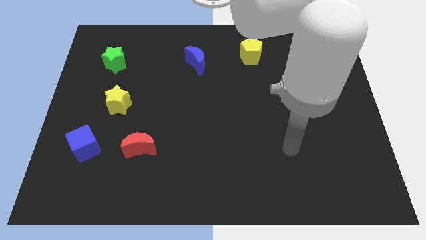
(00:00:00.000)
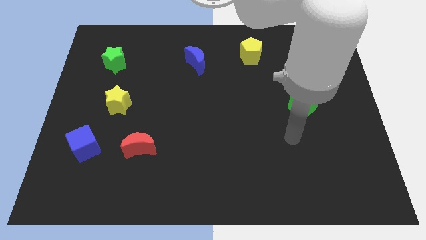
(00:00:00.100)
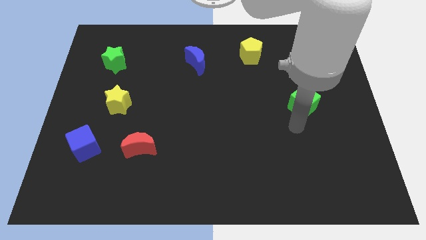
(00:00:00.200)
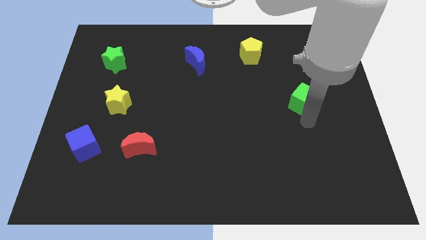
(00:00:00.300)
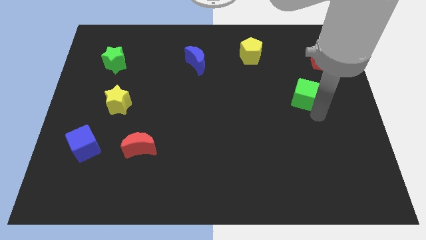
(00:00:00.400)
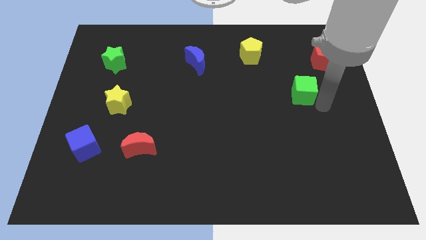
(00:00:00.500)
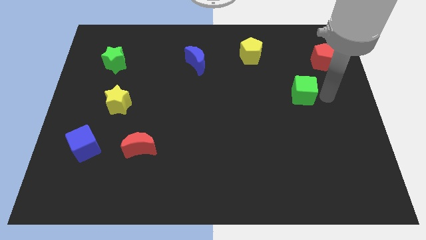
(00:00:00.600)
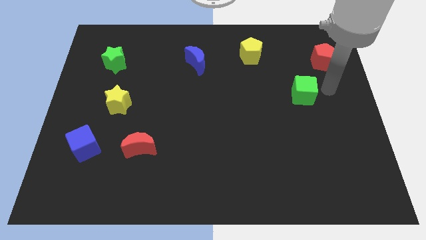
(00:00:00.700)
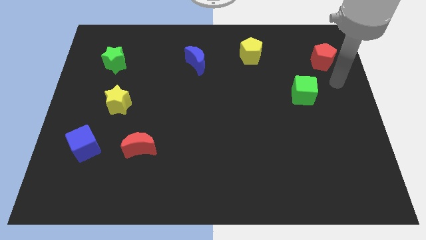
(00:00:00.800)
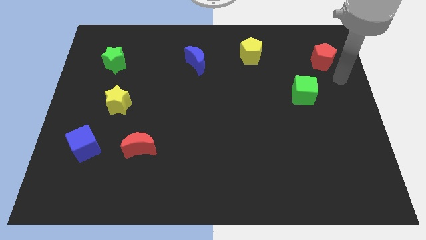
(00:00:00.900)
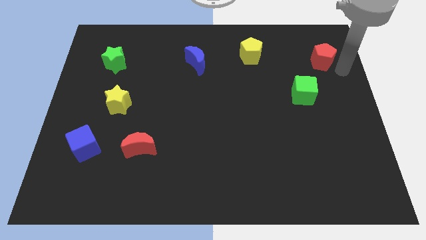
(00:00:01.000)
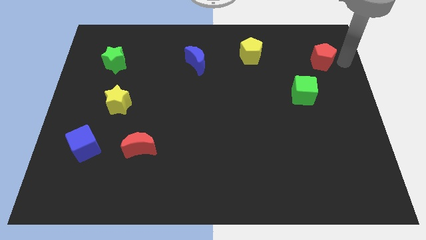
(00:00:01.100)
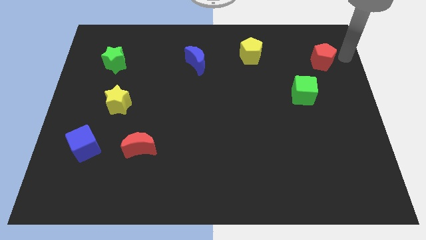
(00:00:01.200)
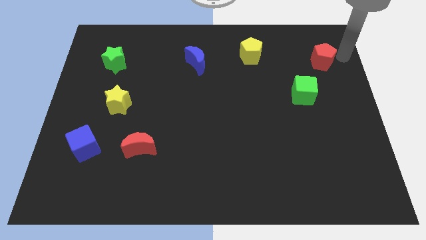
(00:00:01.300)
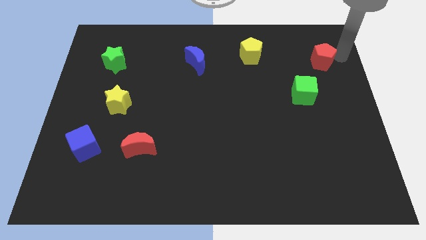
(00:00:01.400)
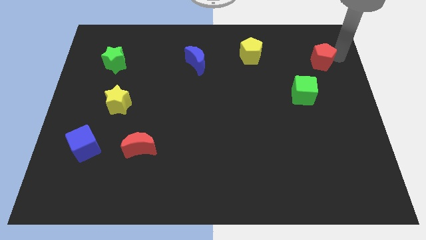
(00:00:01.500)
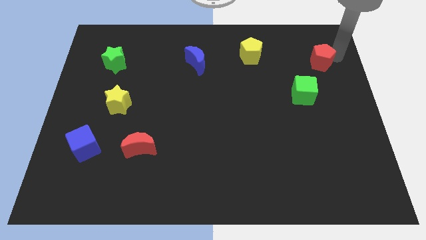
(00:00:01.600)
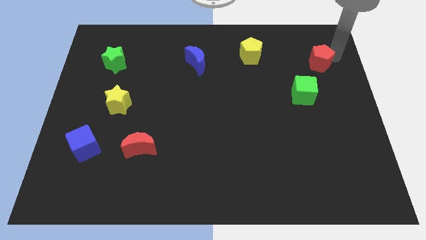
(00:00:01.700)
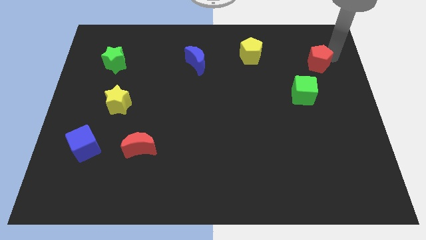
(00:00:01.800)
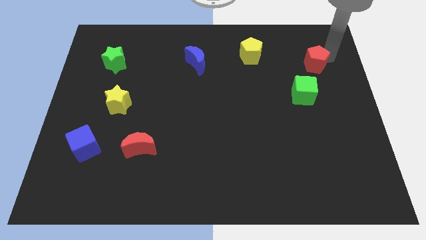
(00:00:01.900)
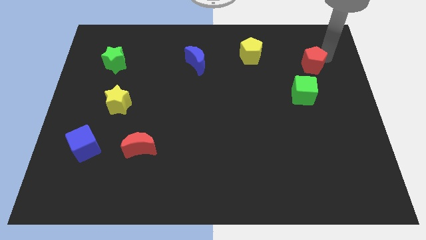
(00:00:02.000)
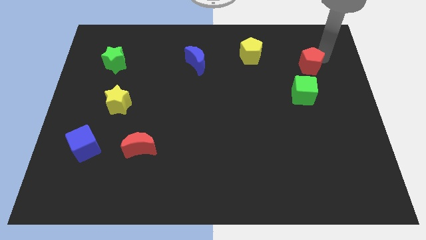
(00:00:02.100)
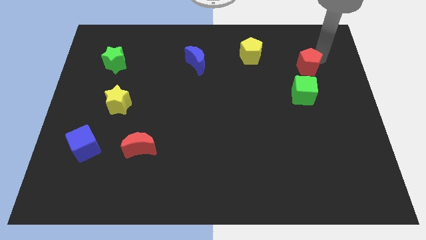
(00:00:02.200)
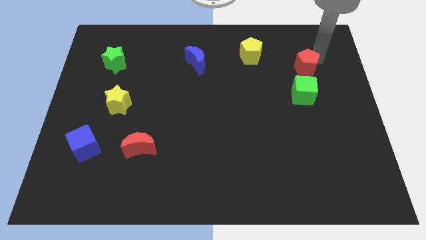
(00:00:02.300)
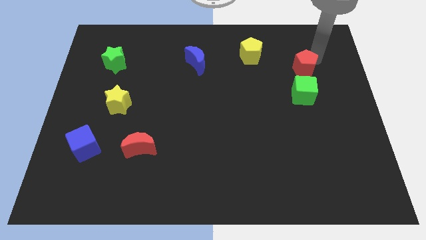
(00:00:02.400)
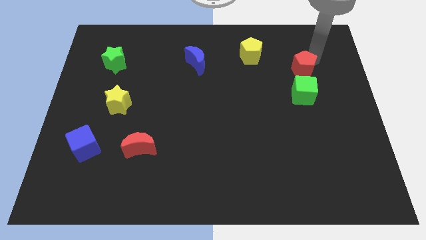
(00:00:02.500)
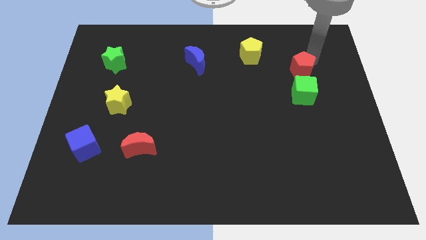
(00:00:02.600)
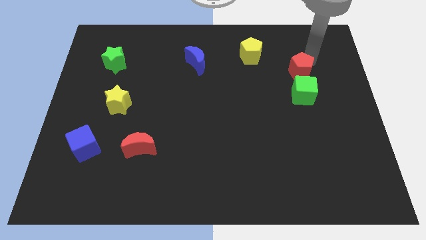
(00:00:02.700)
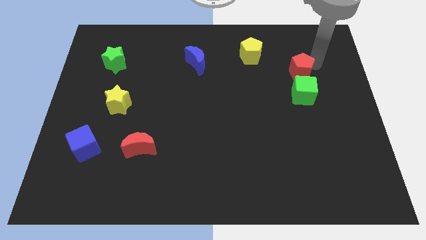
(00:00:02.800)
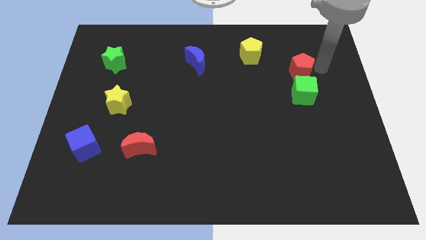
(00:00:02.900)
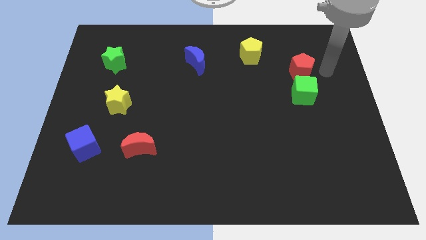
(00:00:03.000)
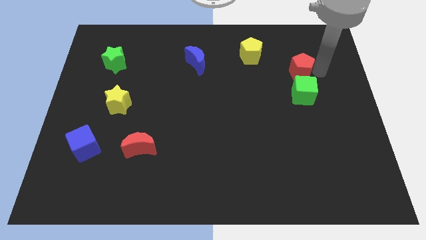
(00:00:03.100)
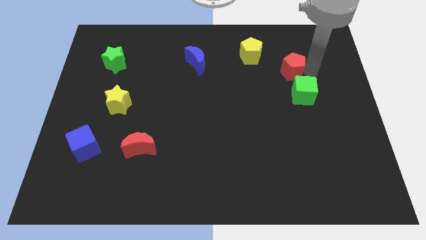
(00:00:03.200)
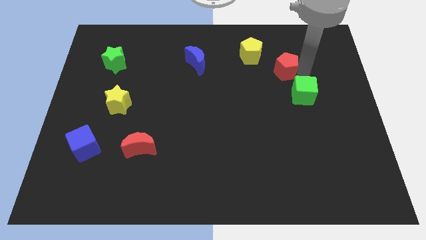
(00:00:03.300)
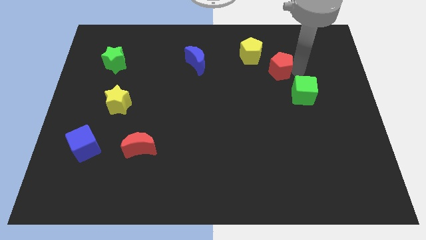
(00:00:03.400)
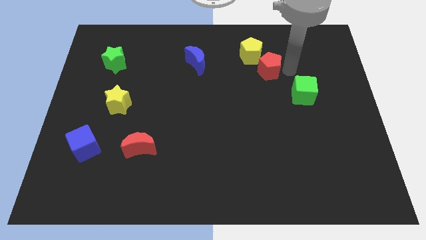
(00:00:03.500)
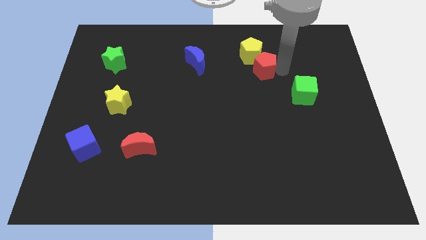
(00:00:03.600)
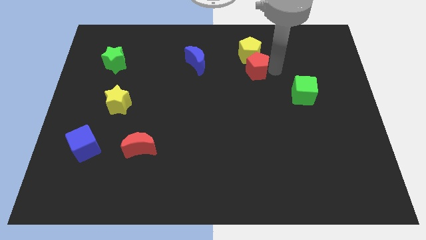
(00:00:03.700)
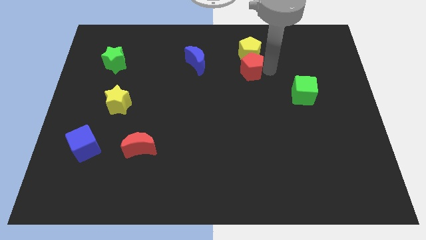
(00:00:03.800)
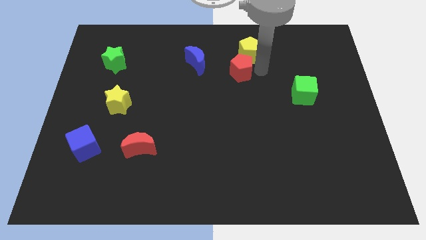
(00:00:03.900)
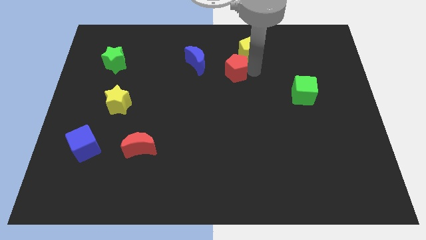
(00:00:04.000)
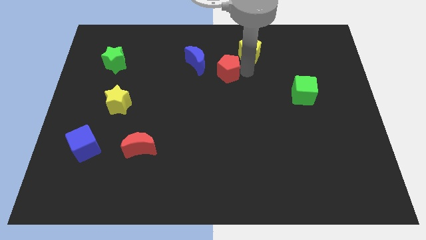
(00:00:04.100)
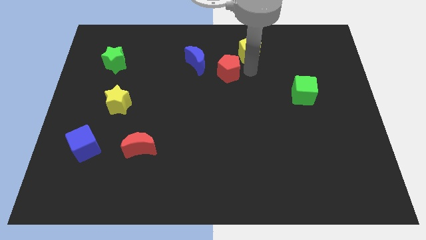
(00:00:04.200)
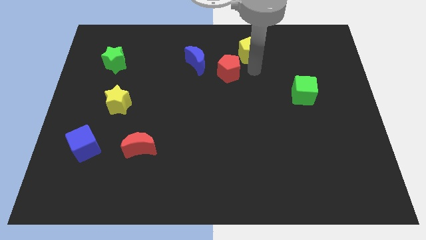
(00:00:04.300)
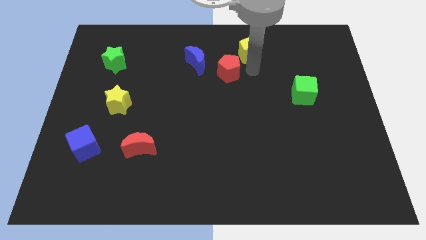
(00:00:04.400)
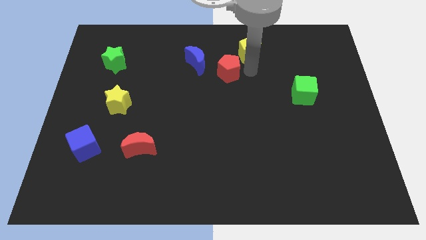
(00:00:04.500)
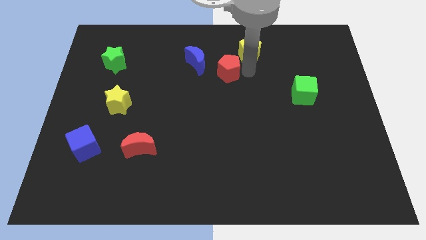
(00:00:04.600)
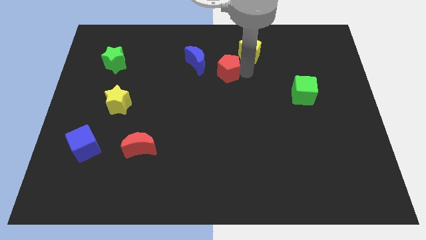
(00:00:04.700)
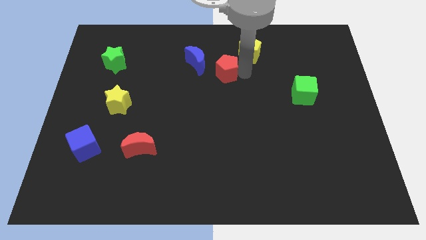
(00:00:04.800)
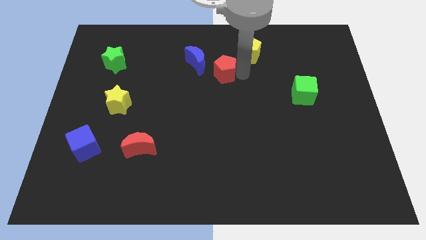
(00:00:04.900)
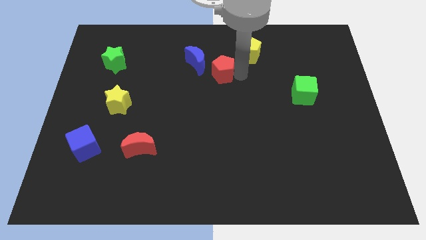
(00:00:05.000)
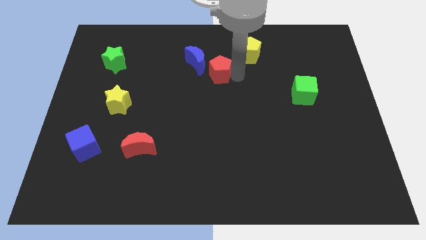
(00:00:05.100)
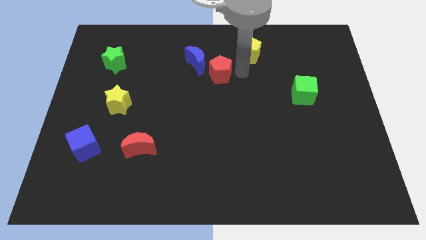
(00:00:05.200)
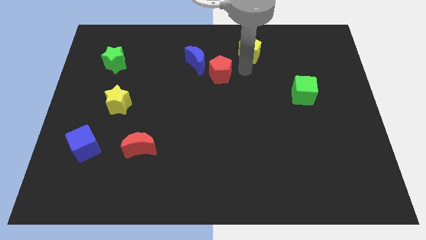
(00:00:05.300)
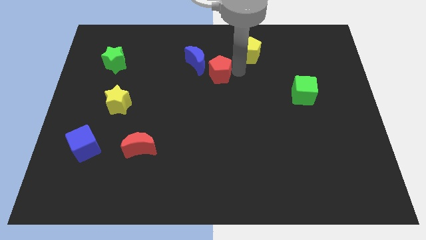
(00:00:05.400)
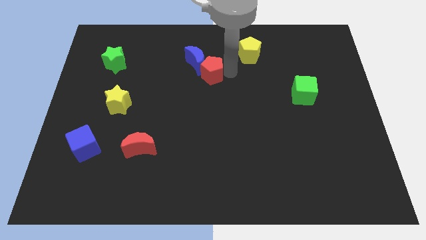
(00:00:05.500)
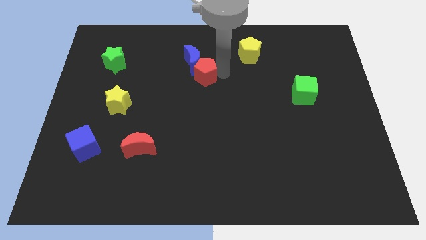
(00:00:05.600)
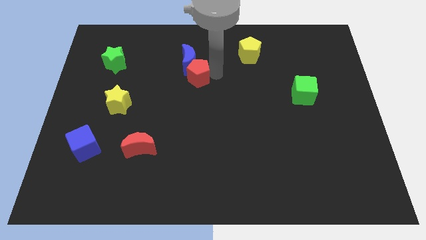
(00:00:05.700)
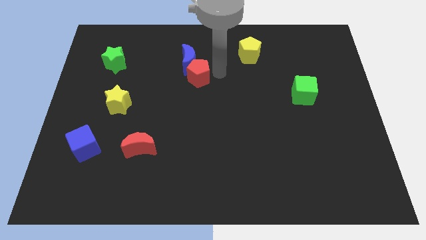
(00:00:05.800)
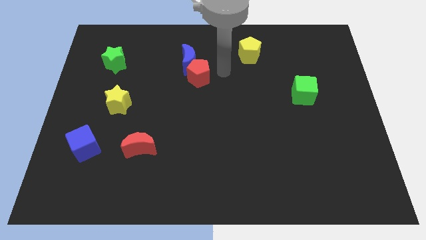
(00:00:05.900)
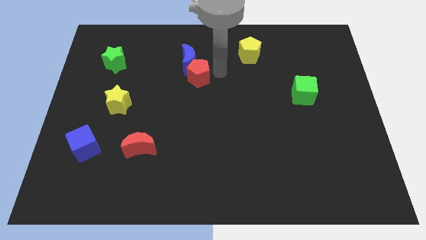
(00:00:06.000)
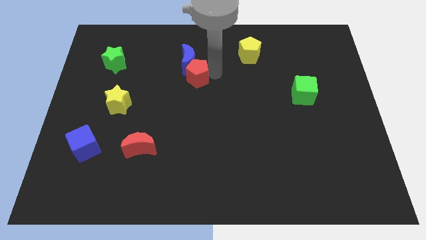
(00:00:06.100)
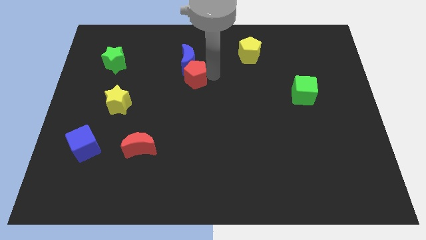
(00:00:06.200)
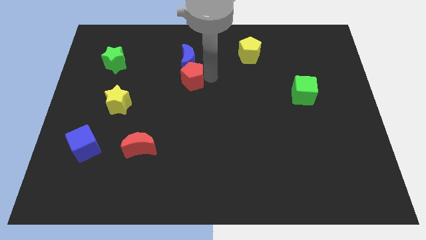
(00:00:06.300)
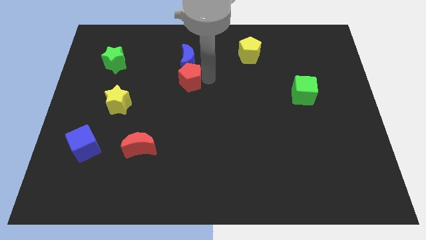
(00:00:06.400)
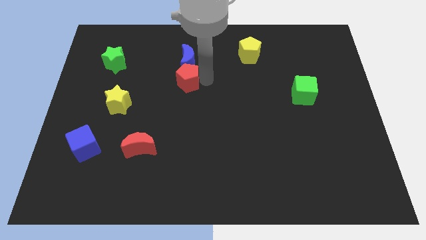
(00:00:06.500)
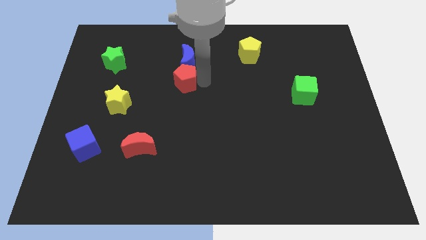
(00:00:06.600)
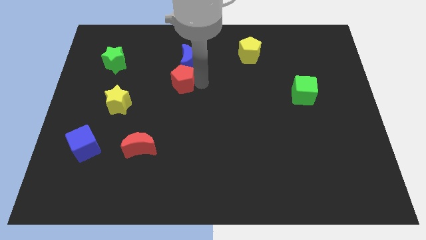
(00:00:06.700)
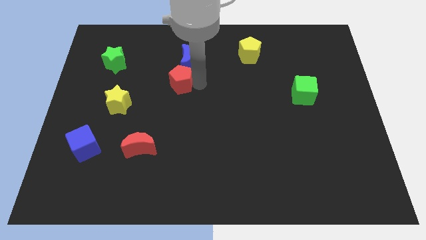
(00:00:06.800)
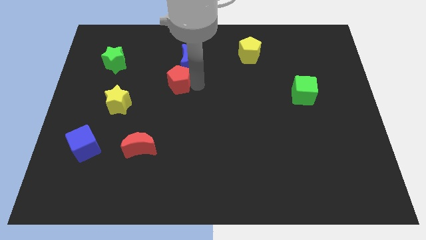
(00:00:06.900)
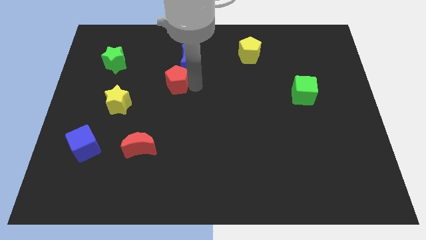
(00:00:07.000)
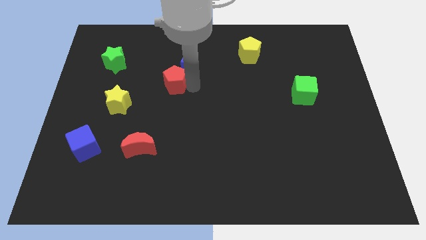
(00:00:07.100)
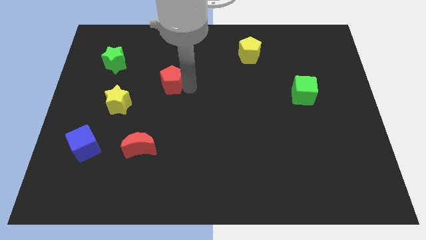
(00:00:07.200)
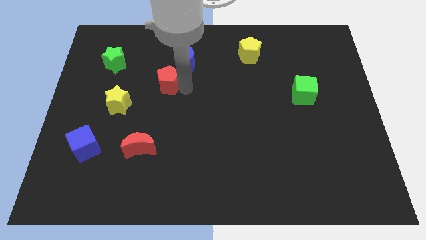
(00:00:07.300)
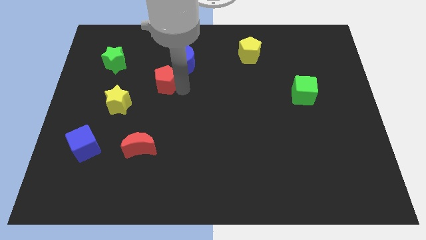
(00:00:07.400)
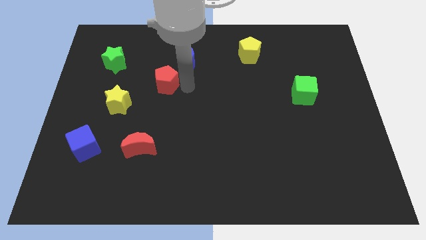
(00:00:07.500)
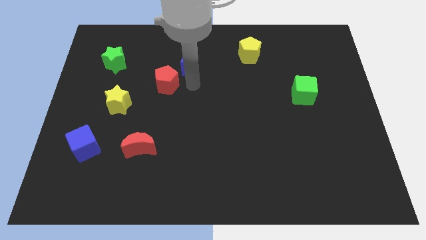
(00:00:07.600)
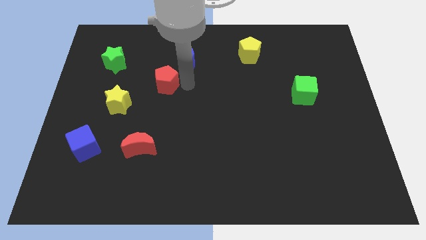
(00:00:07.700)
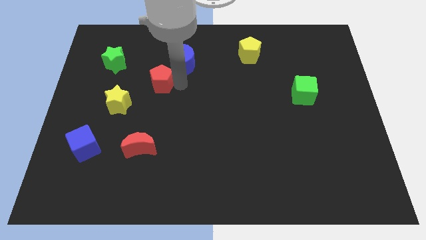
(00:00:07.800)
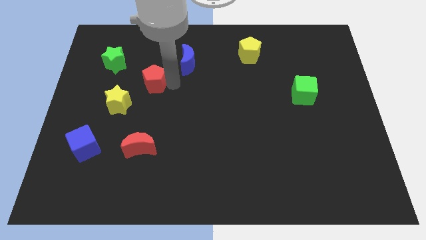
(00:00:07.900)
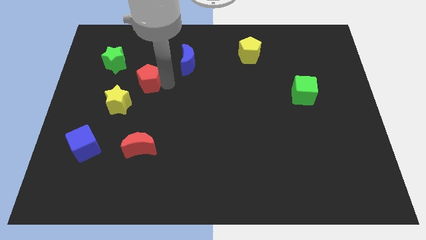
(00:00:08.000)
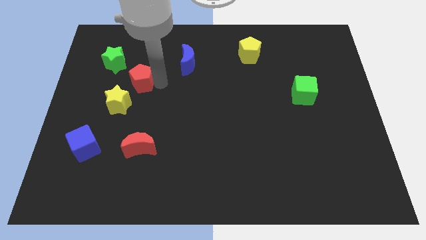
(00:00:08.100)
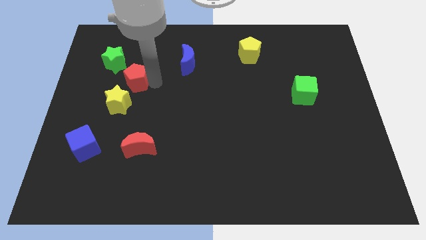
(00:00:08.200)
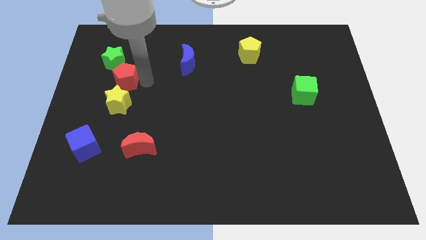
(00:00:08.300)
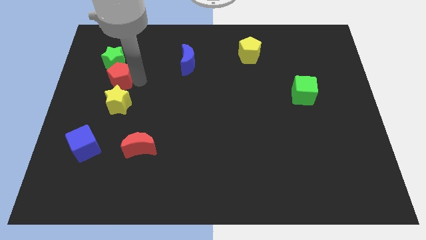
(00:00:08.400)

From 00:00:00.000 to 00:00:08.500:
slide the red pentagon to the top left of the yellow star
